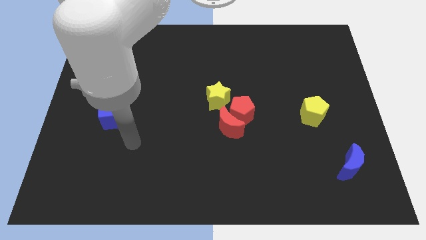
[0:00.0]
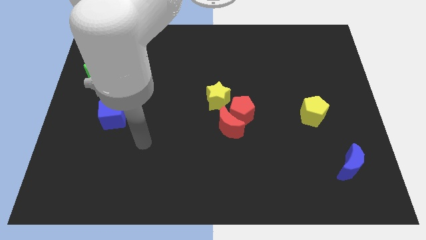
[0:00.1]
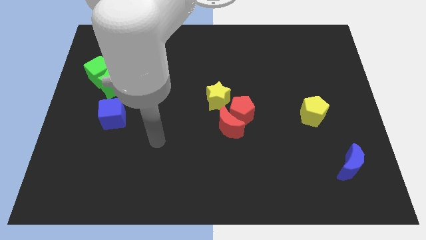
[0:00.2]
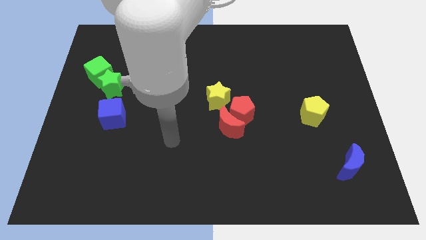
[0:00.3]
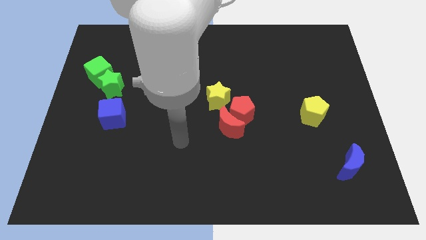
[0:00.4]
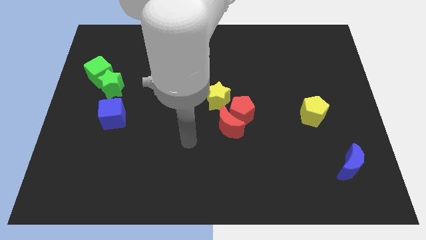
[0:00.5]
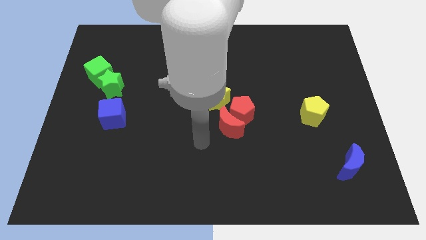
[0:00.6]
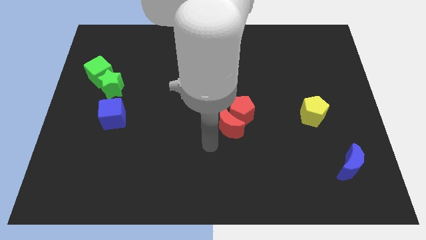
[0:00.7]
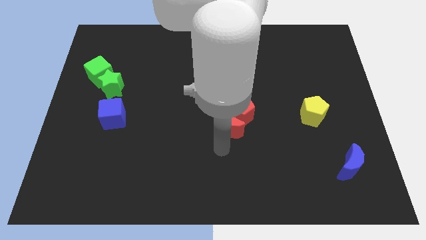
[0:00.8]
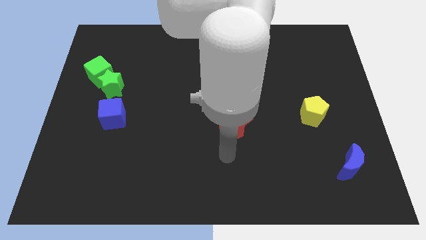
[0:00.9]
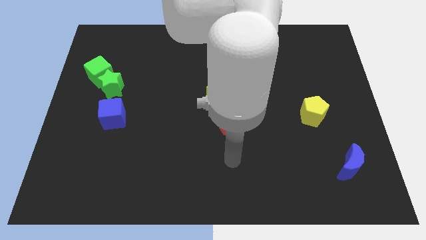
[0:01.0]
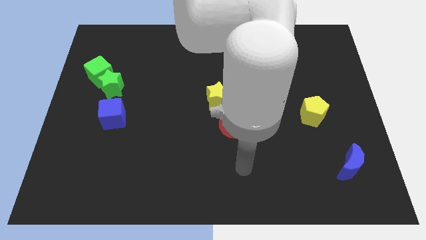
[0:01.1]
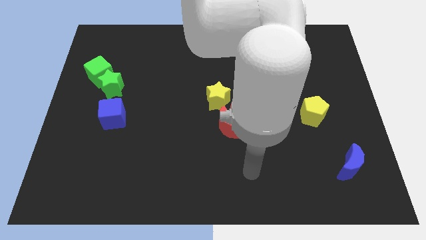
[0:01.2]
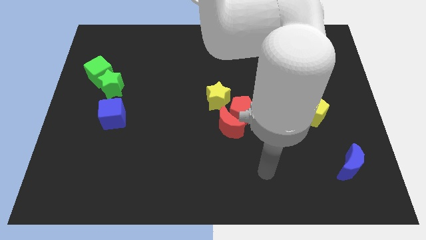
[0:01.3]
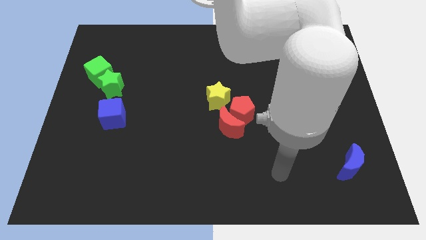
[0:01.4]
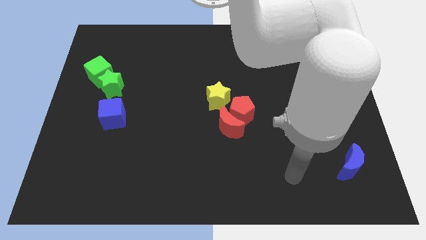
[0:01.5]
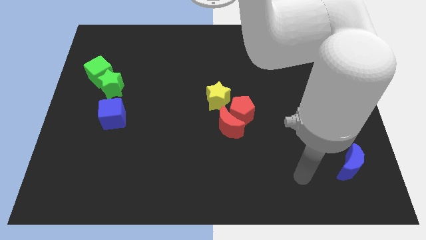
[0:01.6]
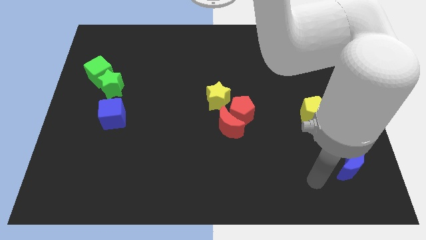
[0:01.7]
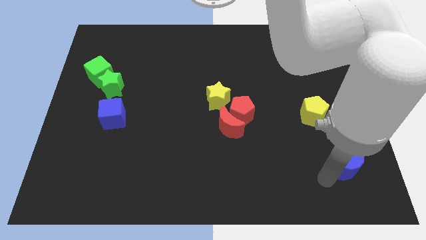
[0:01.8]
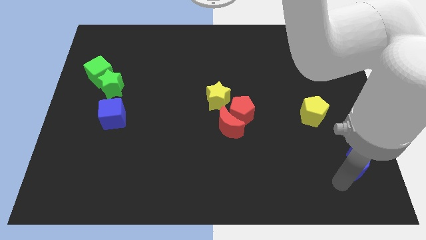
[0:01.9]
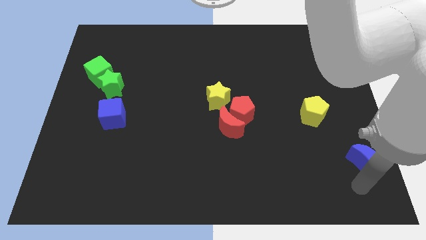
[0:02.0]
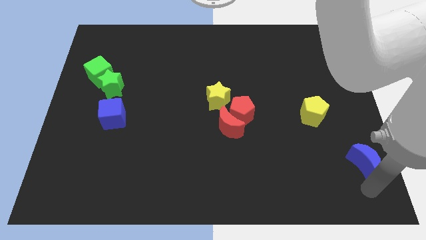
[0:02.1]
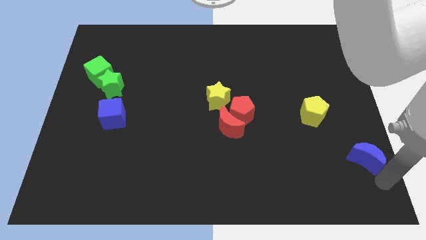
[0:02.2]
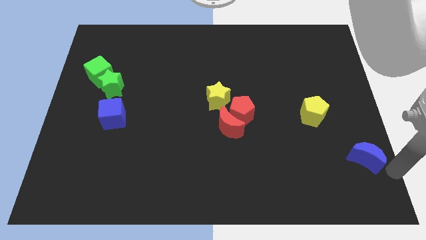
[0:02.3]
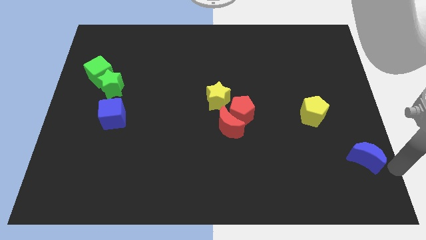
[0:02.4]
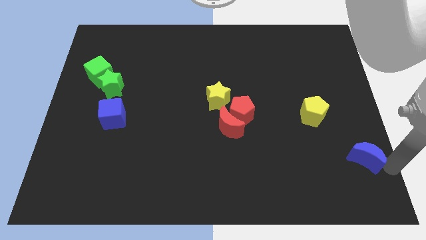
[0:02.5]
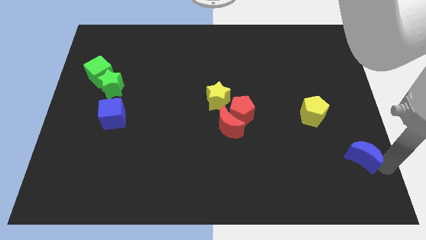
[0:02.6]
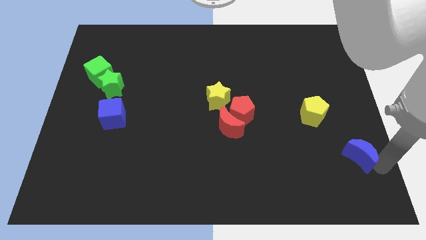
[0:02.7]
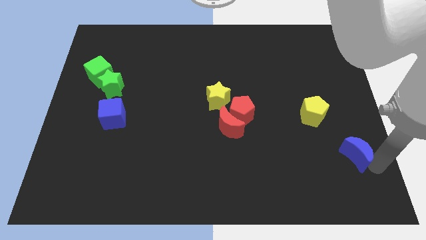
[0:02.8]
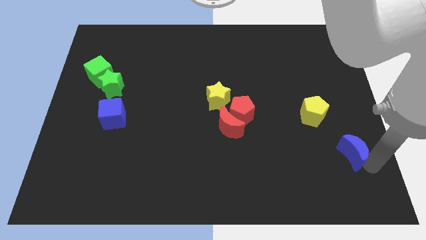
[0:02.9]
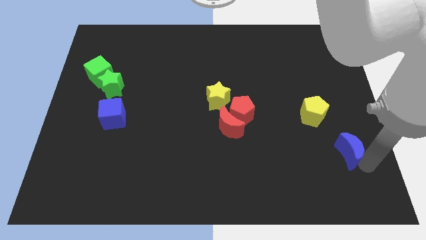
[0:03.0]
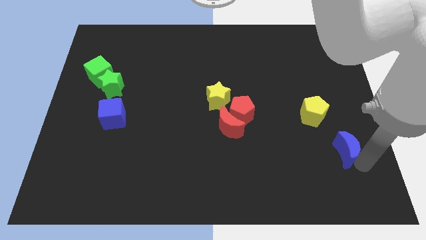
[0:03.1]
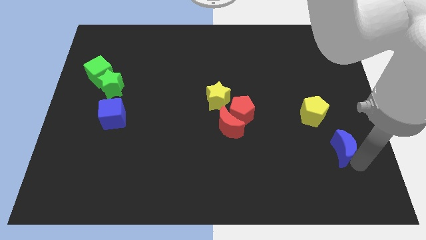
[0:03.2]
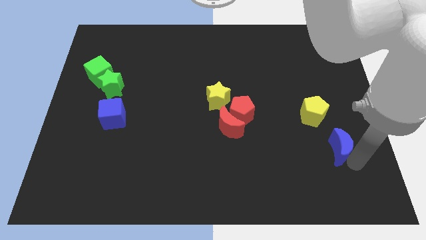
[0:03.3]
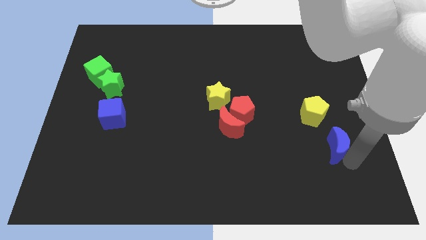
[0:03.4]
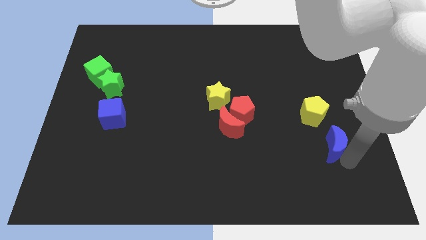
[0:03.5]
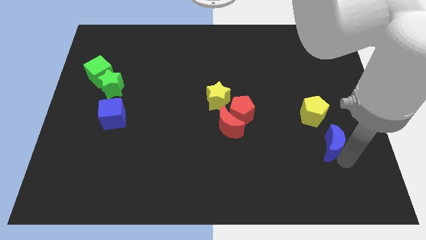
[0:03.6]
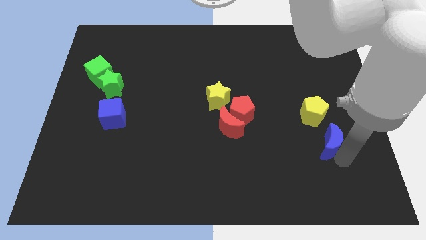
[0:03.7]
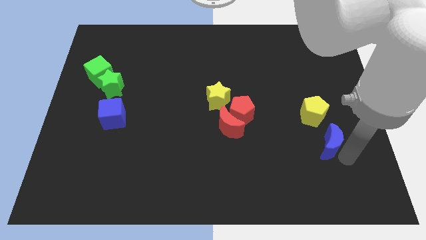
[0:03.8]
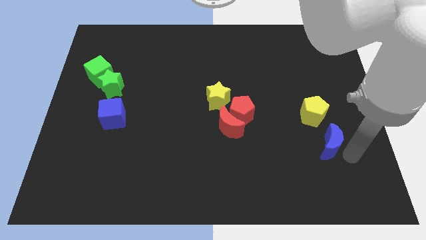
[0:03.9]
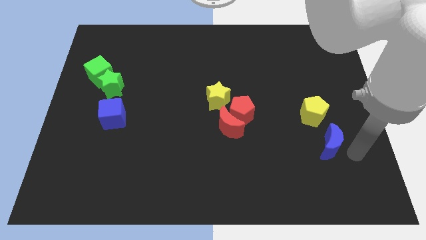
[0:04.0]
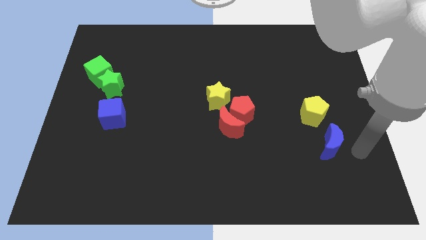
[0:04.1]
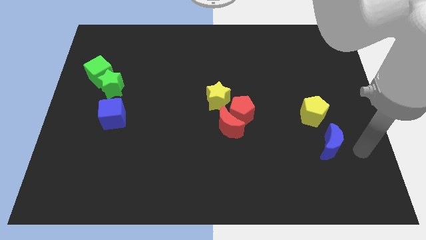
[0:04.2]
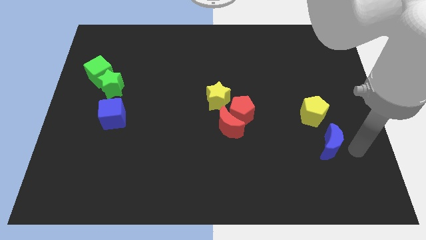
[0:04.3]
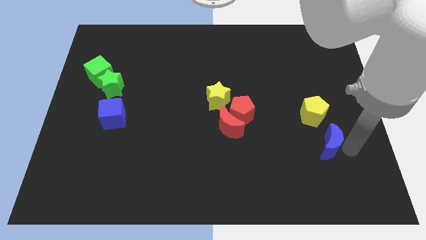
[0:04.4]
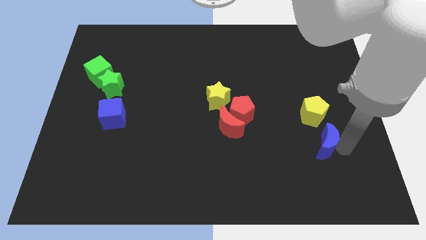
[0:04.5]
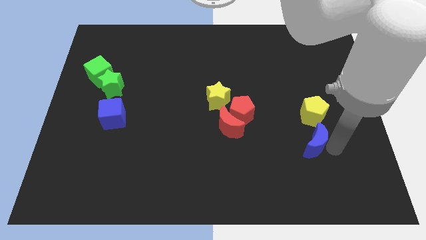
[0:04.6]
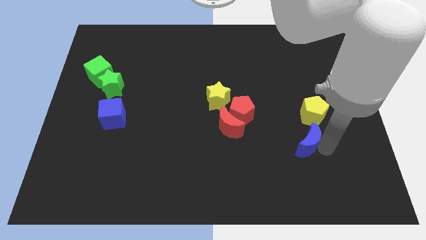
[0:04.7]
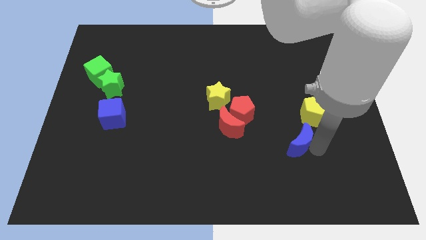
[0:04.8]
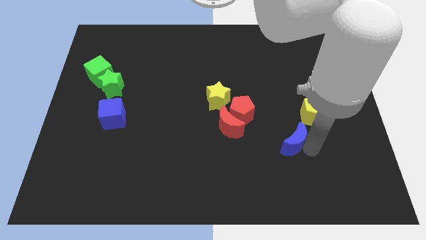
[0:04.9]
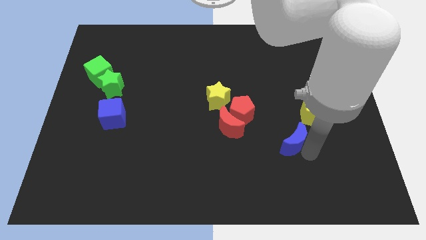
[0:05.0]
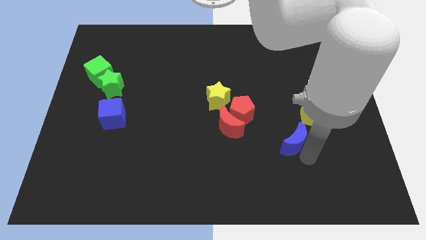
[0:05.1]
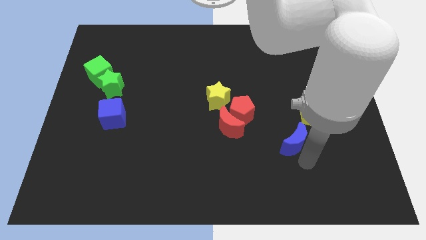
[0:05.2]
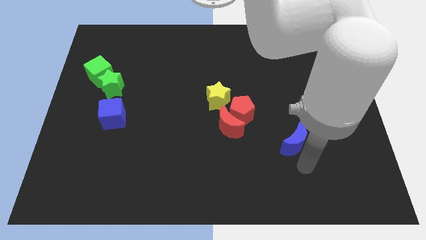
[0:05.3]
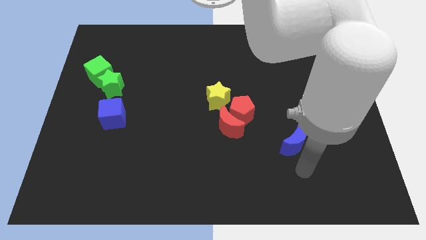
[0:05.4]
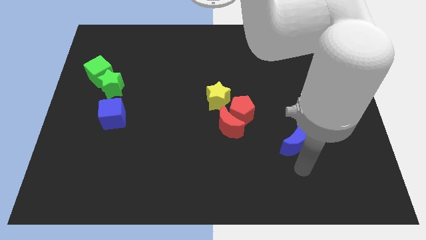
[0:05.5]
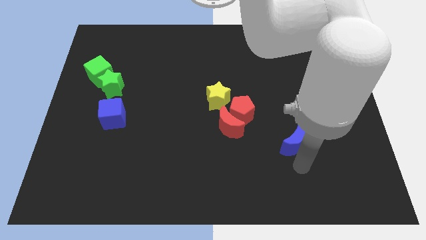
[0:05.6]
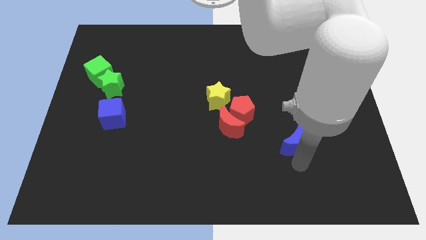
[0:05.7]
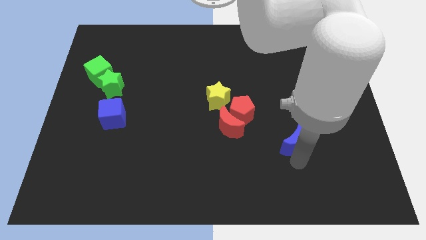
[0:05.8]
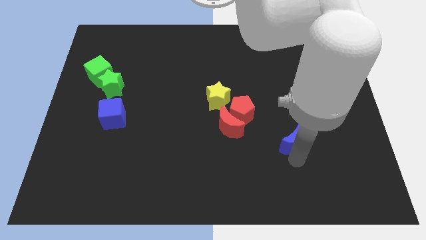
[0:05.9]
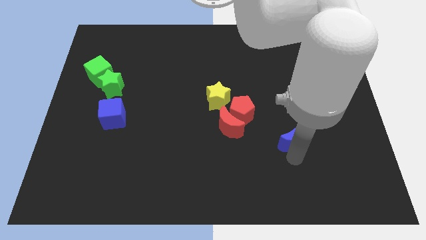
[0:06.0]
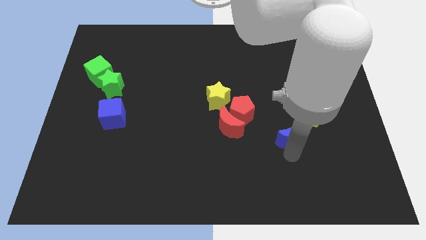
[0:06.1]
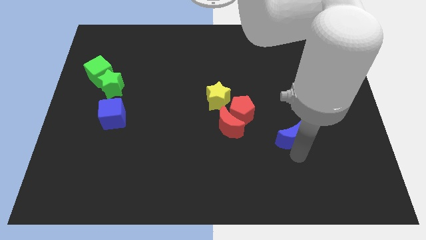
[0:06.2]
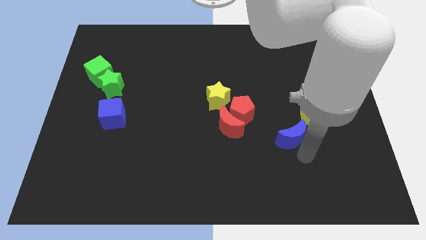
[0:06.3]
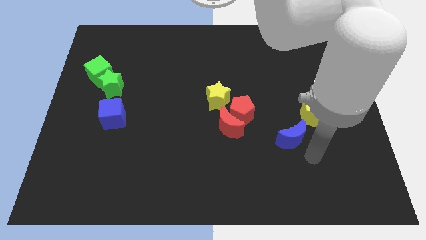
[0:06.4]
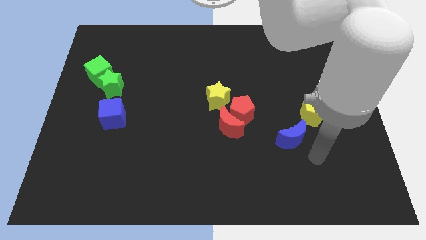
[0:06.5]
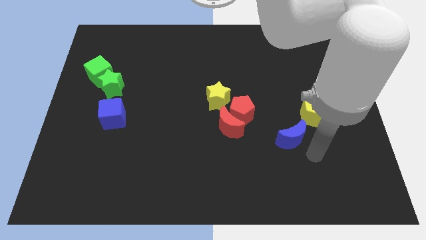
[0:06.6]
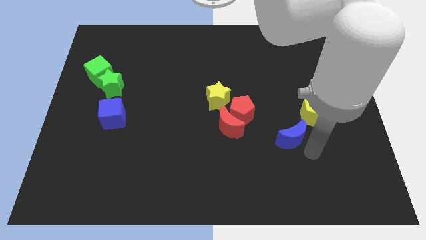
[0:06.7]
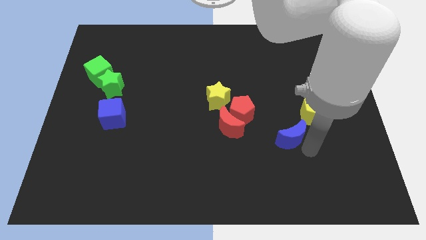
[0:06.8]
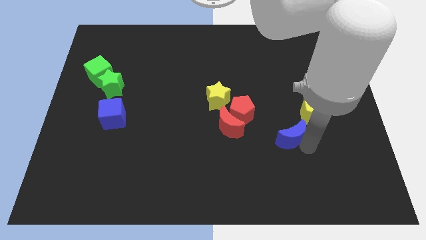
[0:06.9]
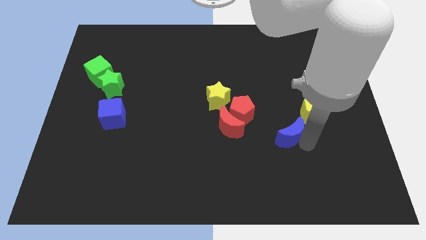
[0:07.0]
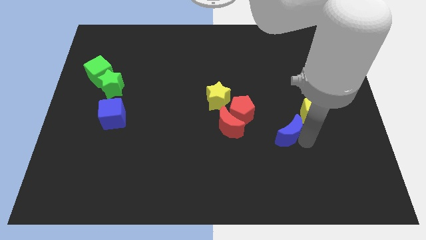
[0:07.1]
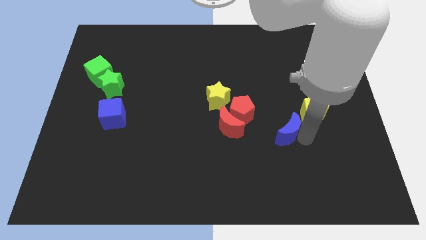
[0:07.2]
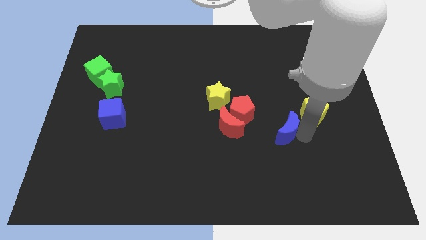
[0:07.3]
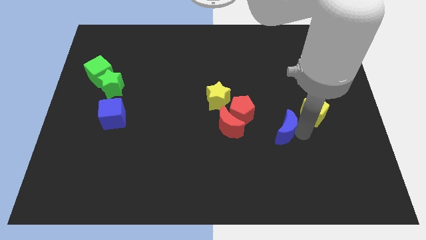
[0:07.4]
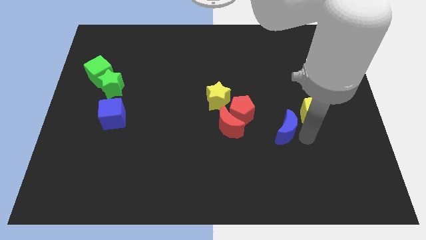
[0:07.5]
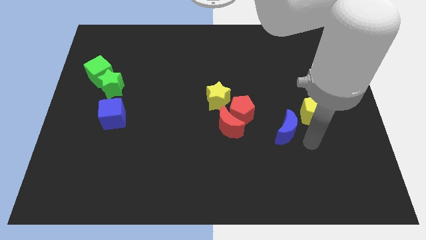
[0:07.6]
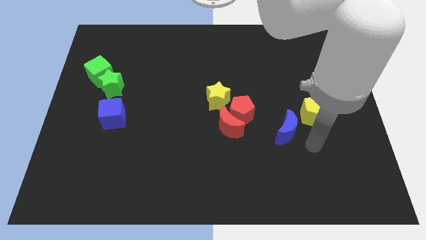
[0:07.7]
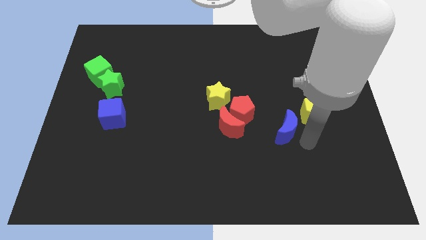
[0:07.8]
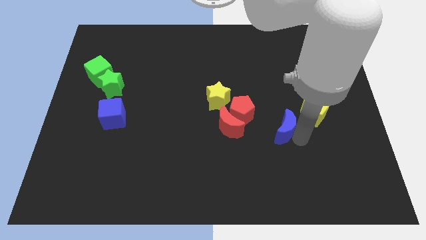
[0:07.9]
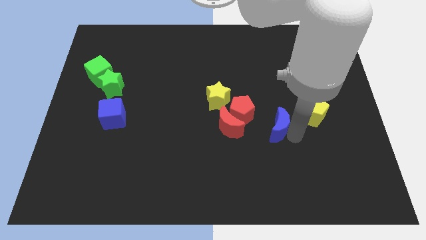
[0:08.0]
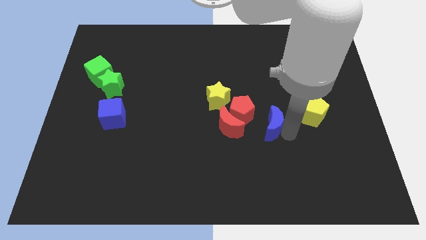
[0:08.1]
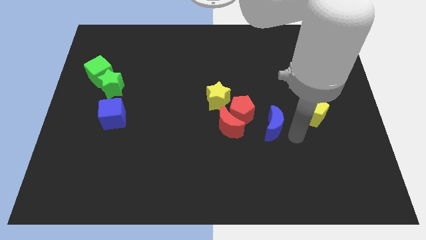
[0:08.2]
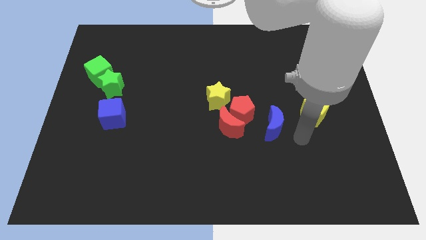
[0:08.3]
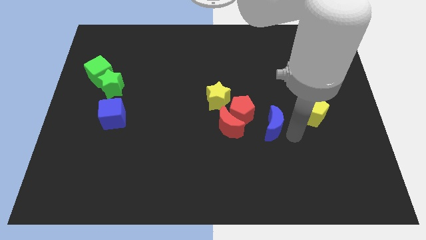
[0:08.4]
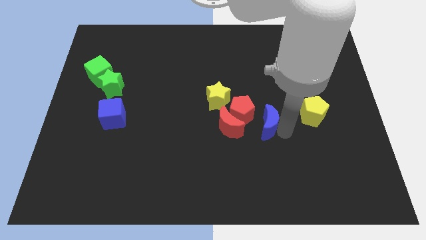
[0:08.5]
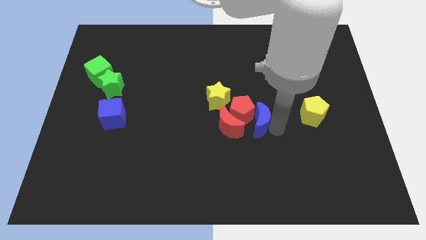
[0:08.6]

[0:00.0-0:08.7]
put the blue moon next to the red pentagon
